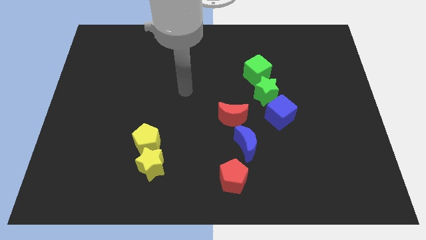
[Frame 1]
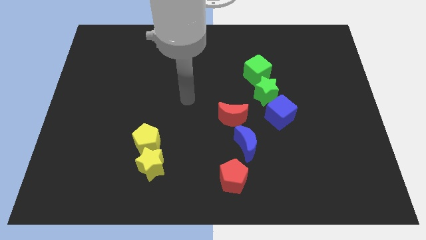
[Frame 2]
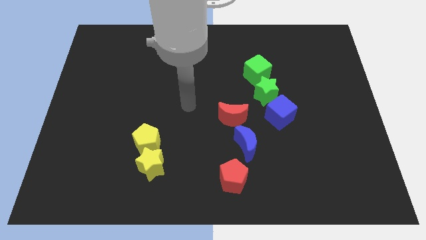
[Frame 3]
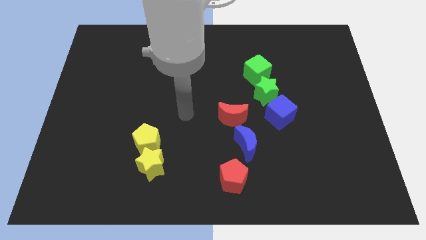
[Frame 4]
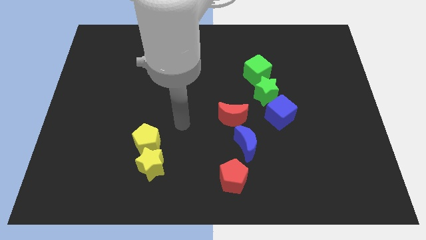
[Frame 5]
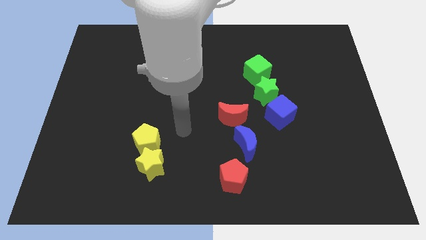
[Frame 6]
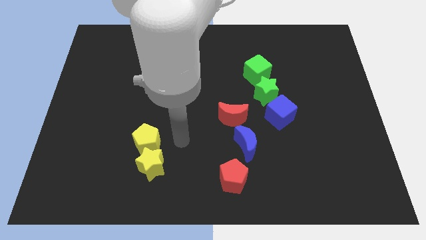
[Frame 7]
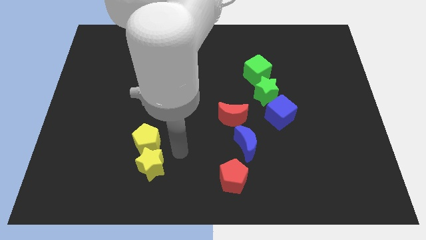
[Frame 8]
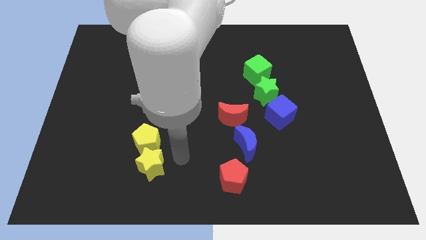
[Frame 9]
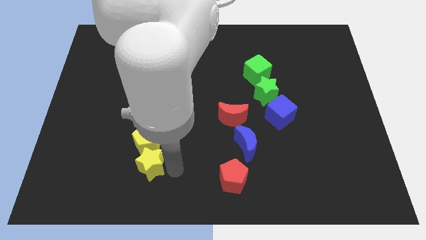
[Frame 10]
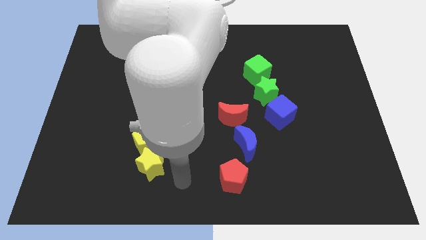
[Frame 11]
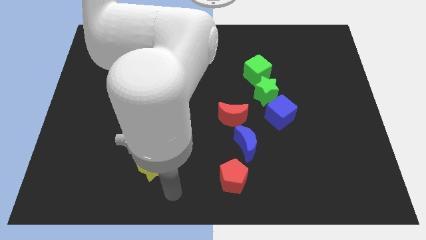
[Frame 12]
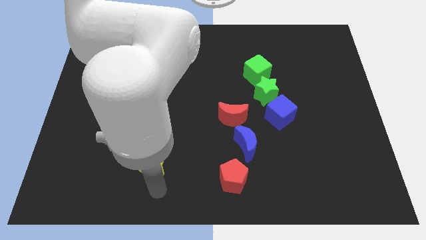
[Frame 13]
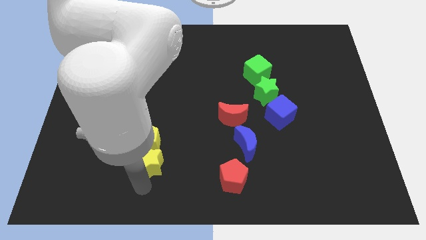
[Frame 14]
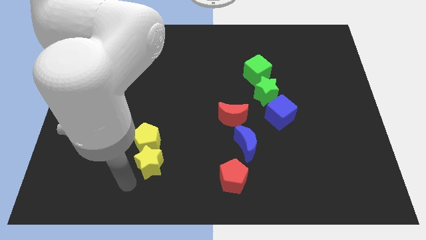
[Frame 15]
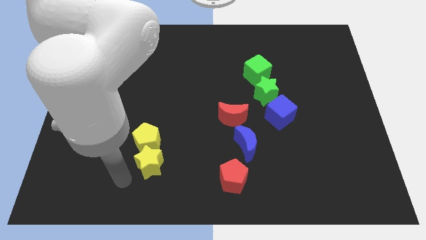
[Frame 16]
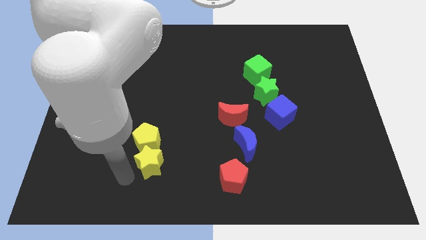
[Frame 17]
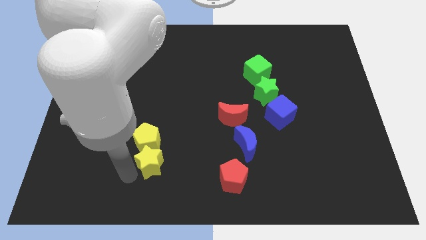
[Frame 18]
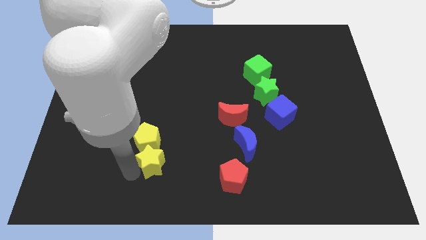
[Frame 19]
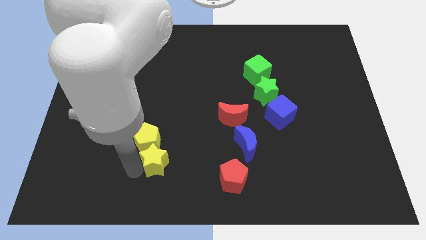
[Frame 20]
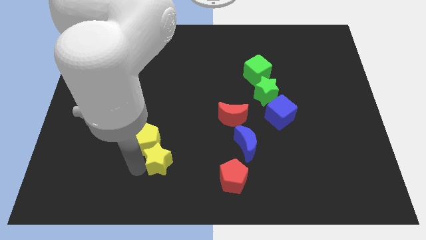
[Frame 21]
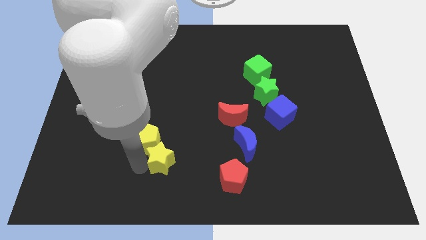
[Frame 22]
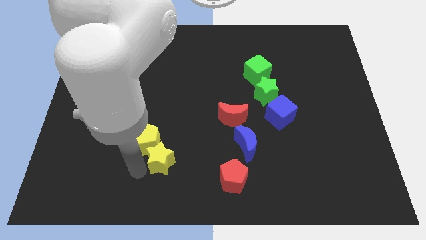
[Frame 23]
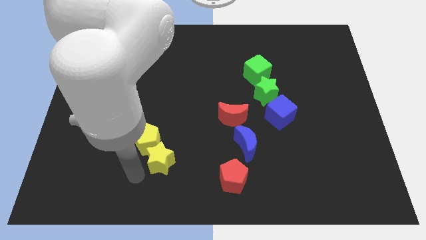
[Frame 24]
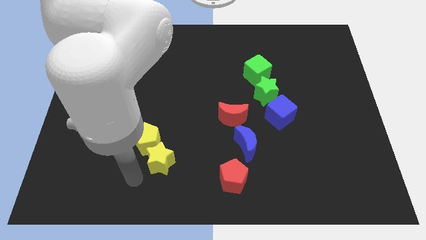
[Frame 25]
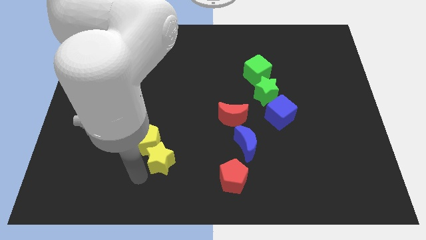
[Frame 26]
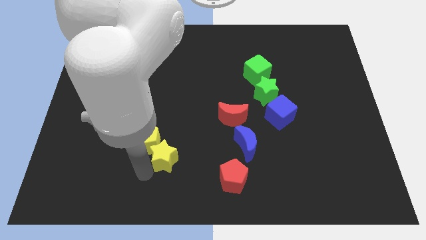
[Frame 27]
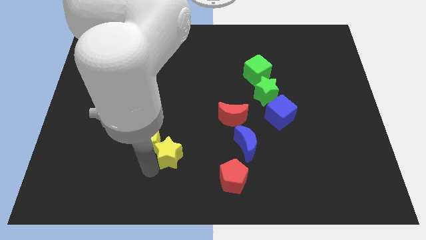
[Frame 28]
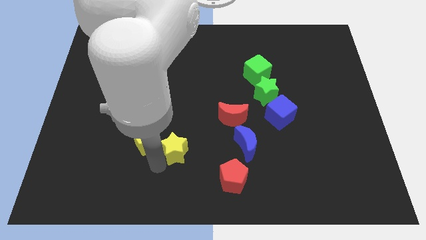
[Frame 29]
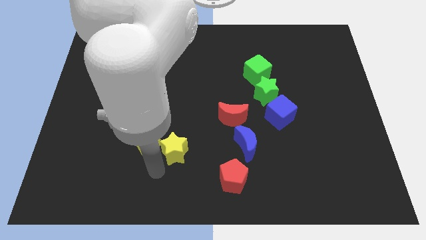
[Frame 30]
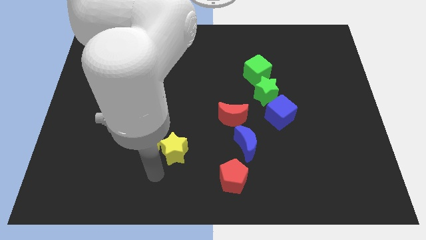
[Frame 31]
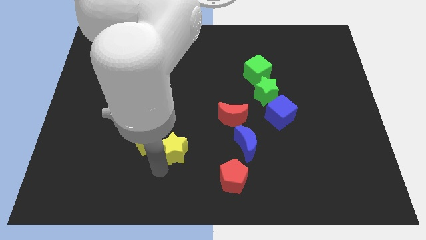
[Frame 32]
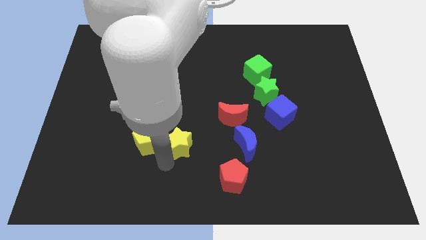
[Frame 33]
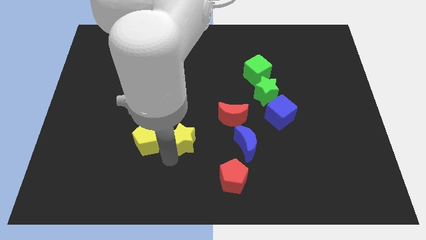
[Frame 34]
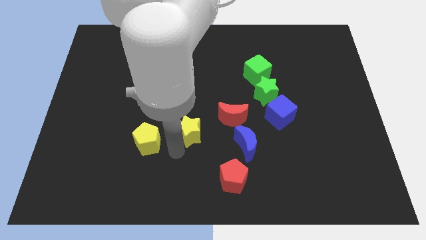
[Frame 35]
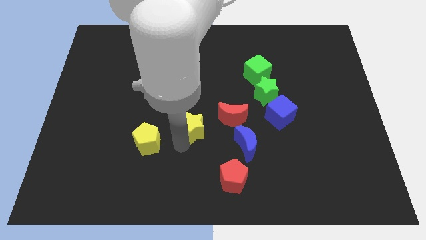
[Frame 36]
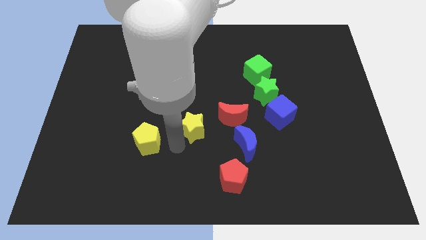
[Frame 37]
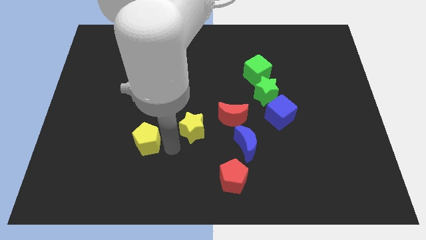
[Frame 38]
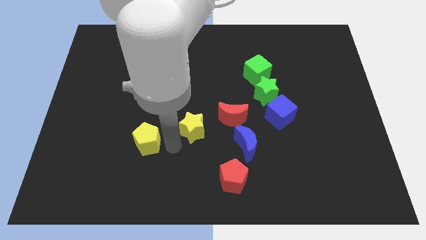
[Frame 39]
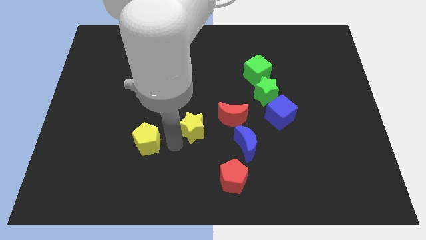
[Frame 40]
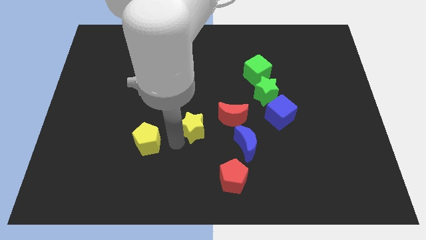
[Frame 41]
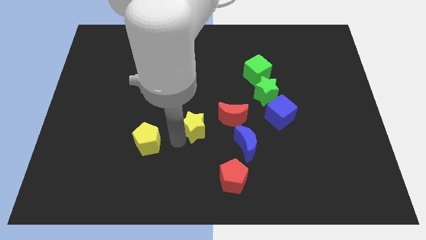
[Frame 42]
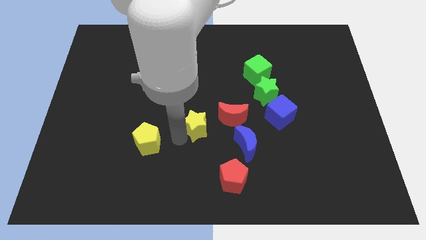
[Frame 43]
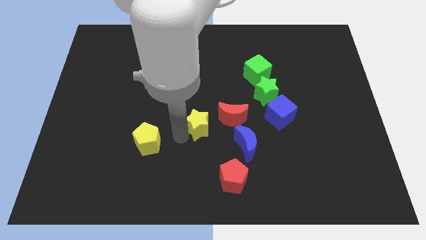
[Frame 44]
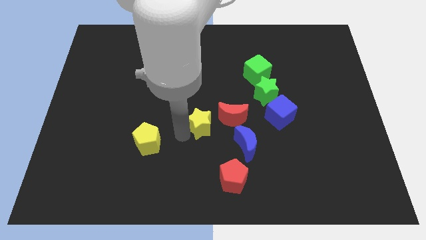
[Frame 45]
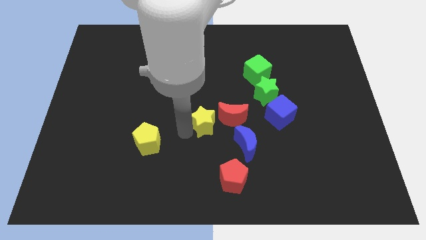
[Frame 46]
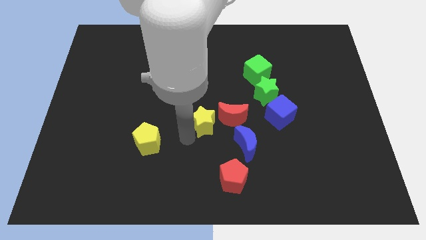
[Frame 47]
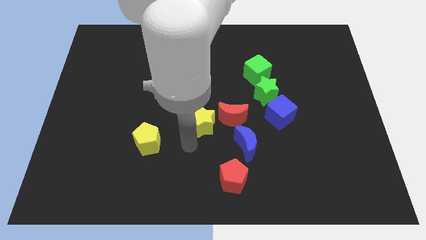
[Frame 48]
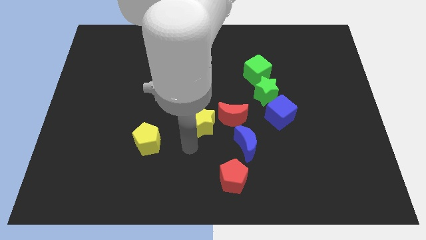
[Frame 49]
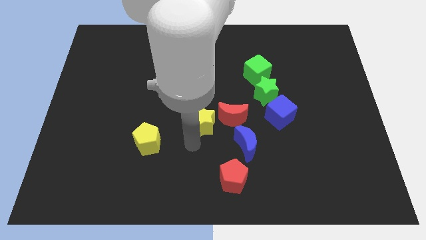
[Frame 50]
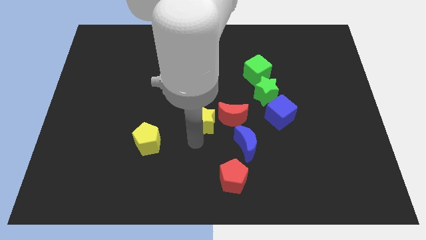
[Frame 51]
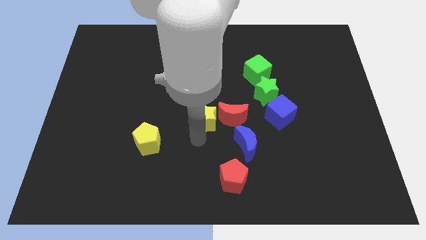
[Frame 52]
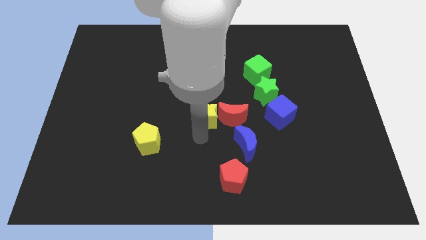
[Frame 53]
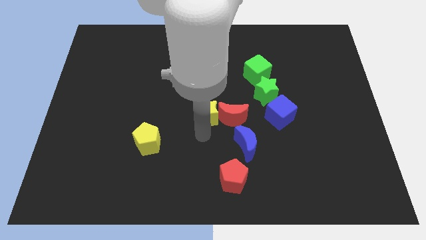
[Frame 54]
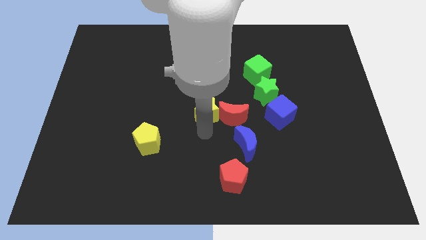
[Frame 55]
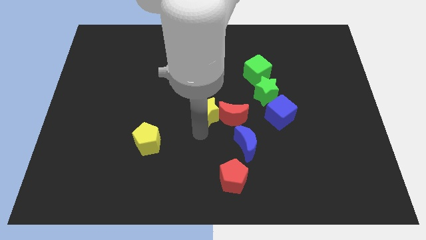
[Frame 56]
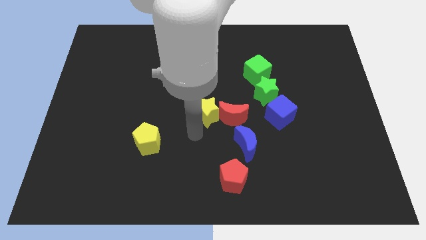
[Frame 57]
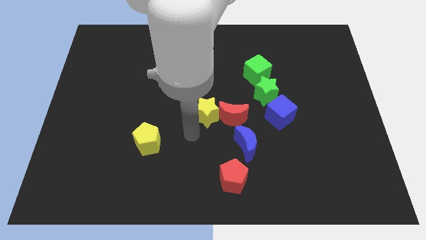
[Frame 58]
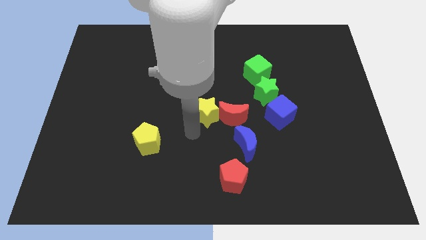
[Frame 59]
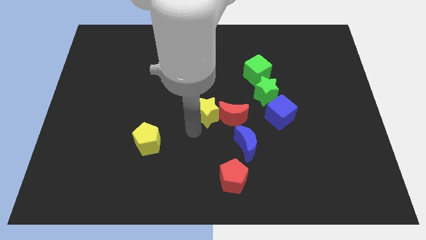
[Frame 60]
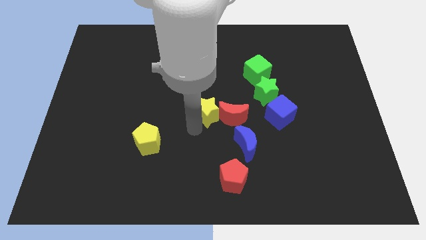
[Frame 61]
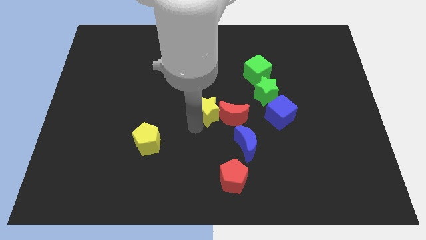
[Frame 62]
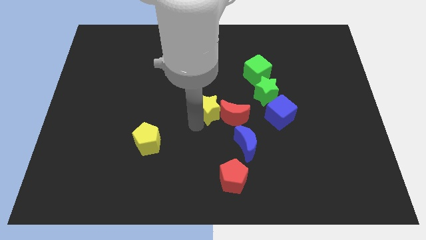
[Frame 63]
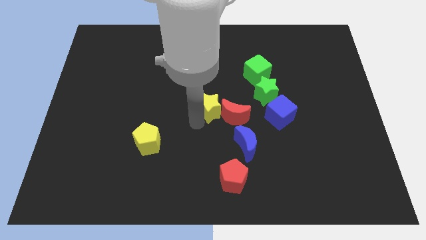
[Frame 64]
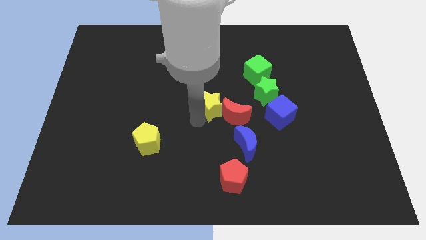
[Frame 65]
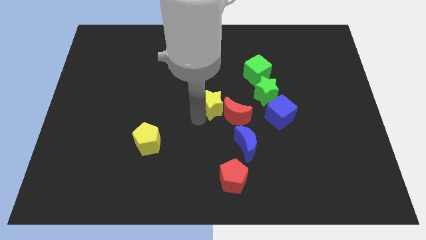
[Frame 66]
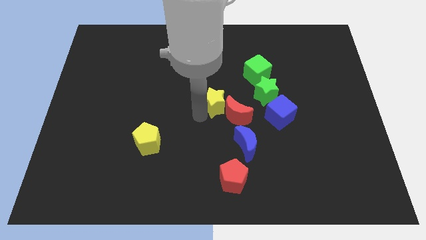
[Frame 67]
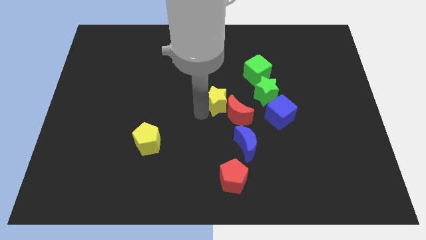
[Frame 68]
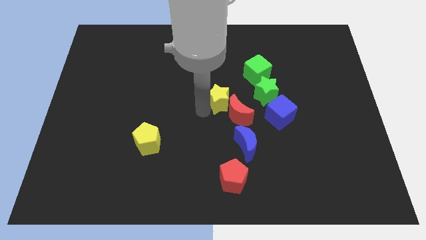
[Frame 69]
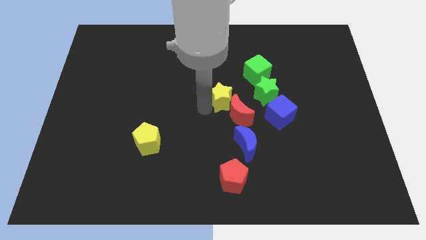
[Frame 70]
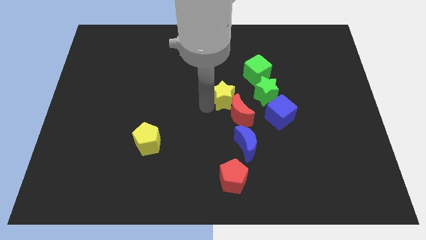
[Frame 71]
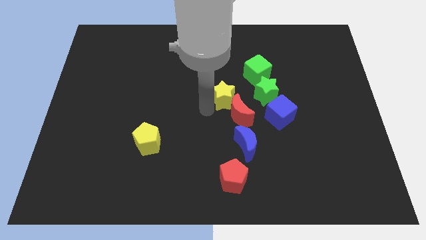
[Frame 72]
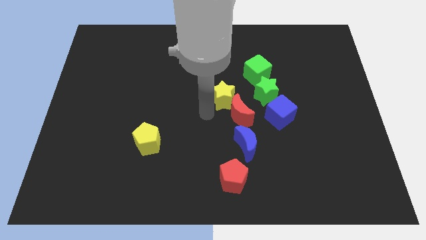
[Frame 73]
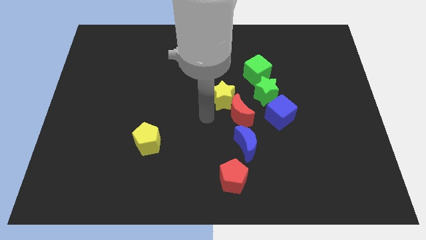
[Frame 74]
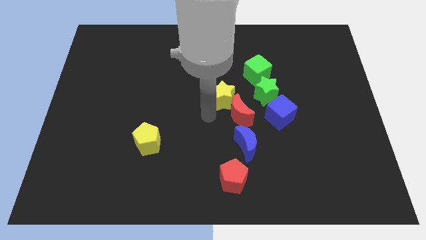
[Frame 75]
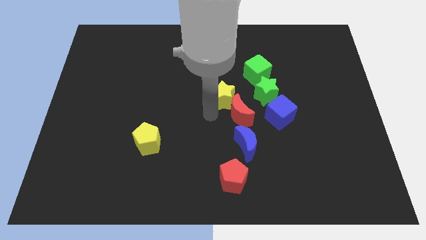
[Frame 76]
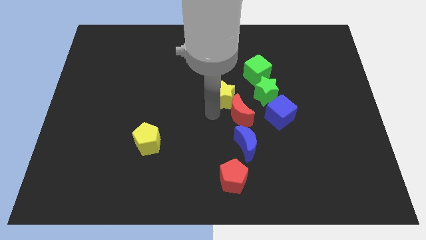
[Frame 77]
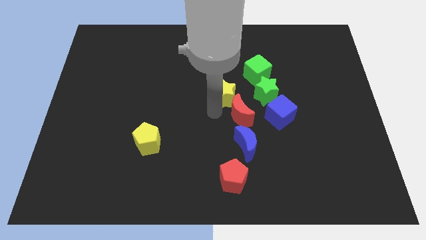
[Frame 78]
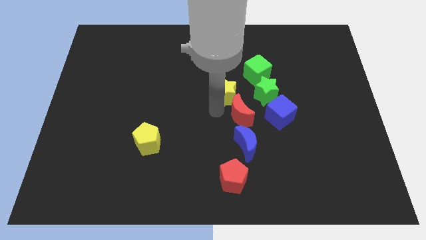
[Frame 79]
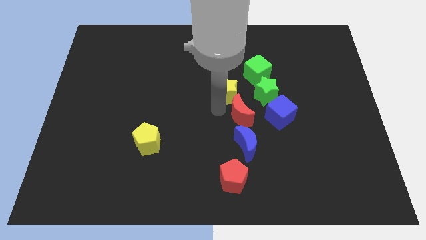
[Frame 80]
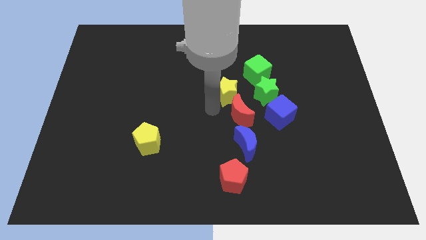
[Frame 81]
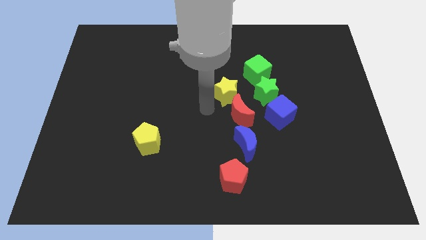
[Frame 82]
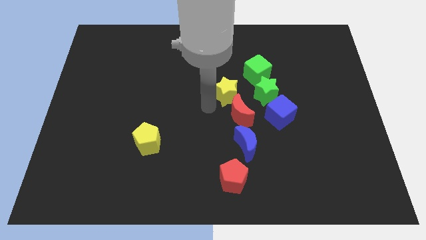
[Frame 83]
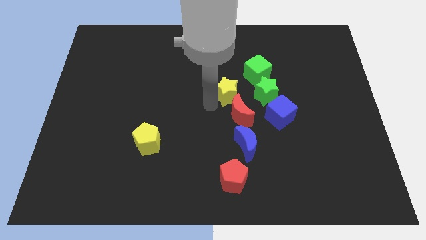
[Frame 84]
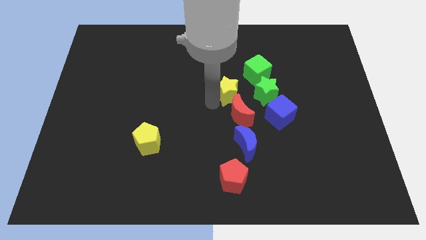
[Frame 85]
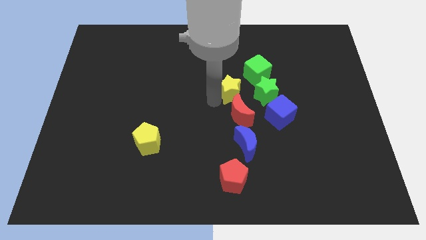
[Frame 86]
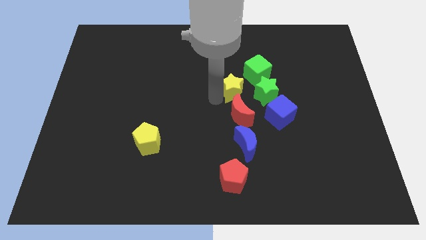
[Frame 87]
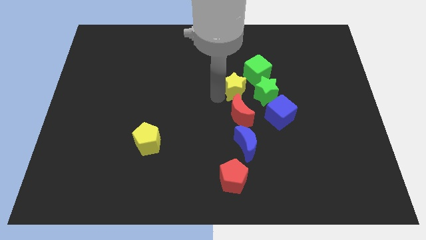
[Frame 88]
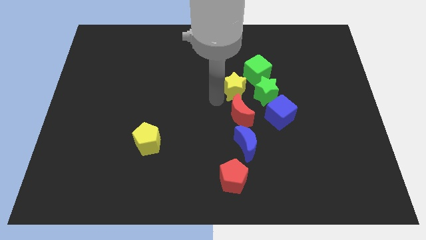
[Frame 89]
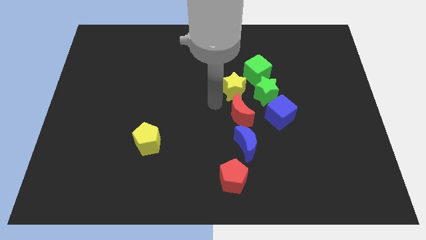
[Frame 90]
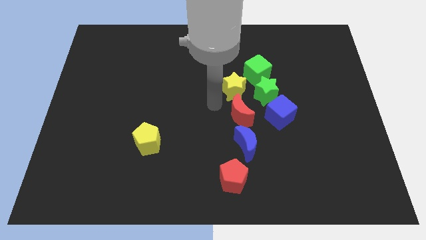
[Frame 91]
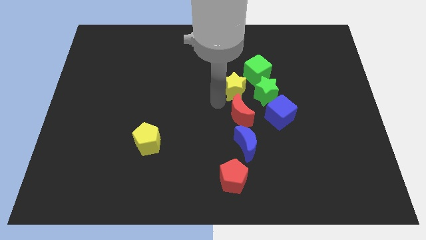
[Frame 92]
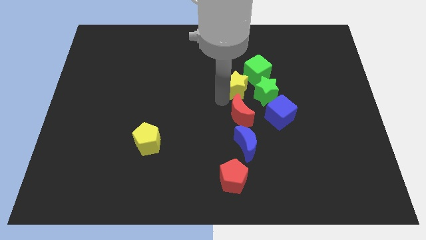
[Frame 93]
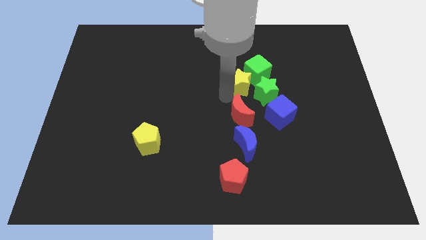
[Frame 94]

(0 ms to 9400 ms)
move the yellow star close to the green cube
